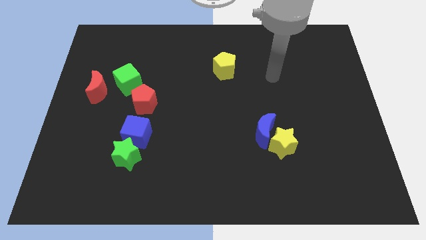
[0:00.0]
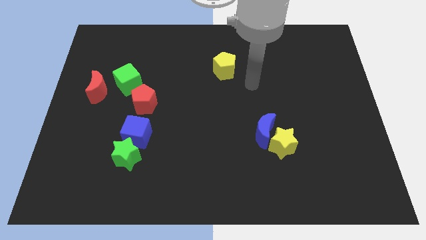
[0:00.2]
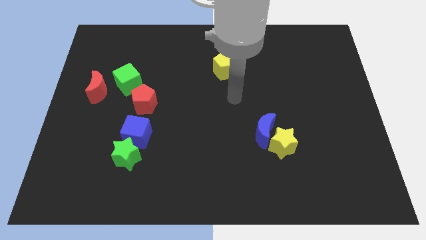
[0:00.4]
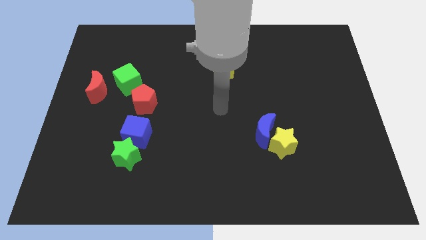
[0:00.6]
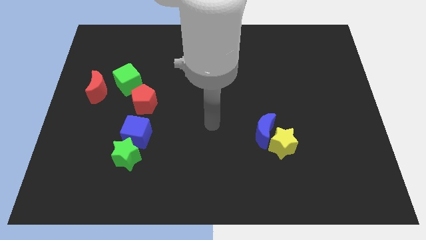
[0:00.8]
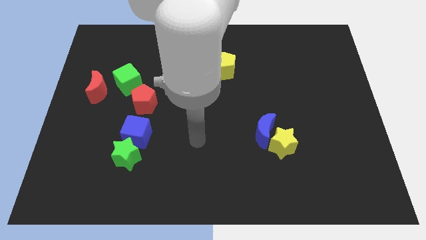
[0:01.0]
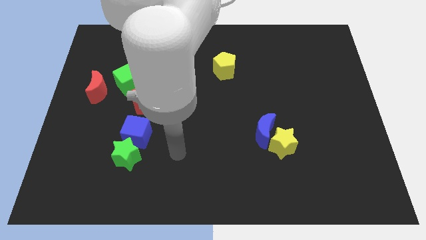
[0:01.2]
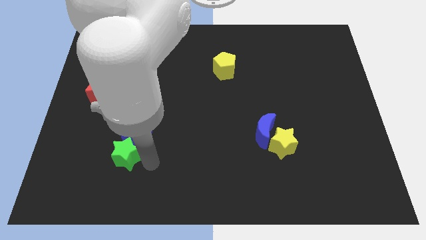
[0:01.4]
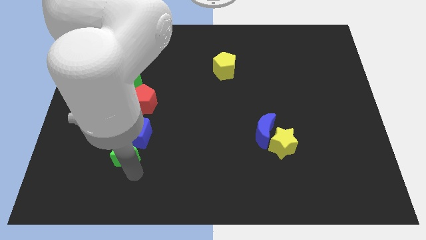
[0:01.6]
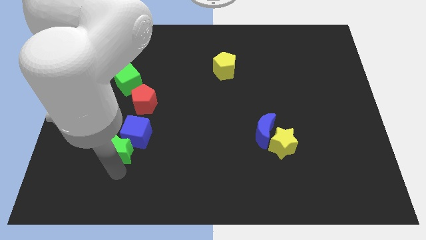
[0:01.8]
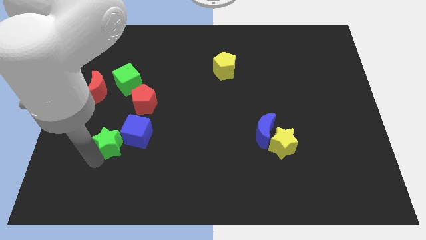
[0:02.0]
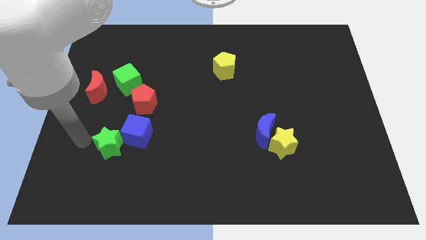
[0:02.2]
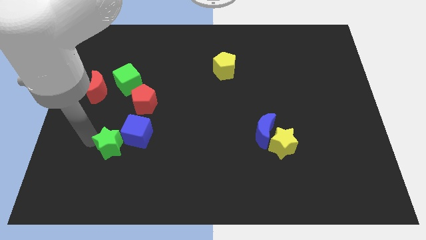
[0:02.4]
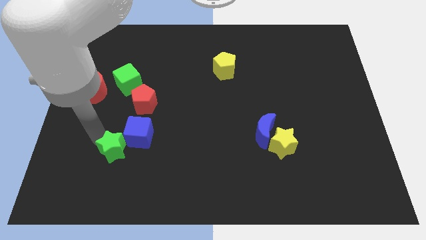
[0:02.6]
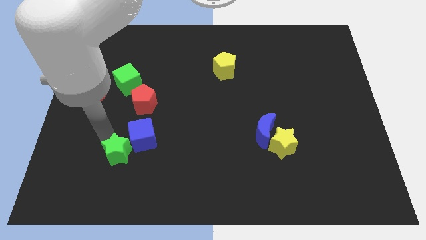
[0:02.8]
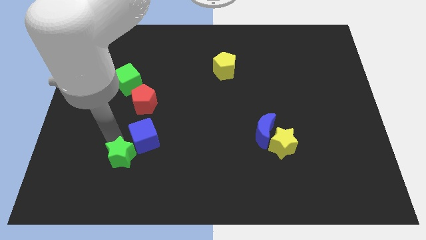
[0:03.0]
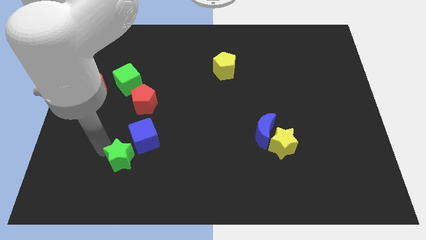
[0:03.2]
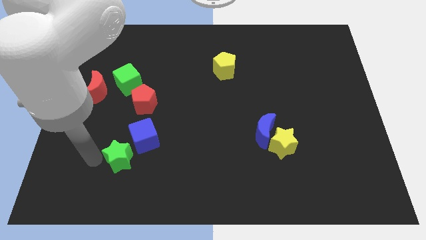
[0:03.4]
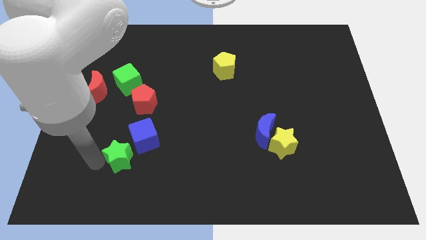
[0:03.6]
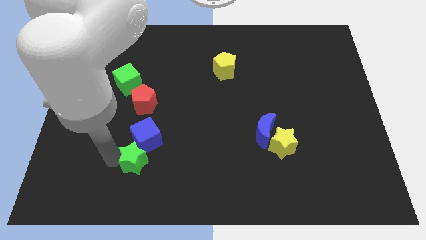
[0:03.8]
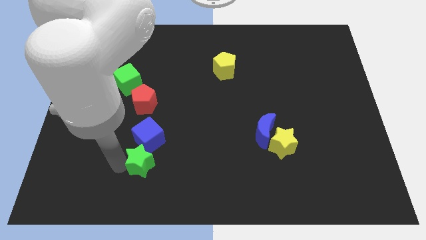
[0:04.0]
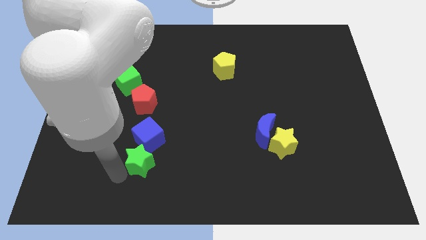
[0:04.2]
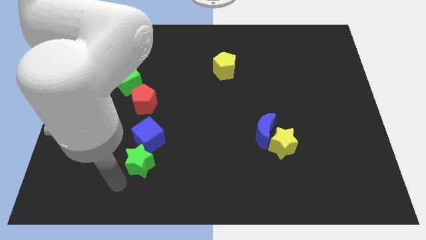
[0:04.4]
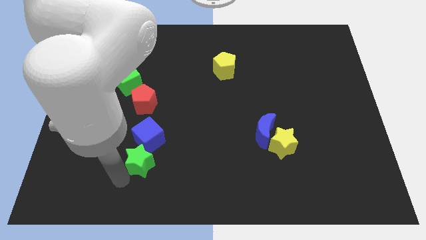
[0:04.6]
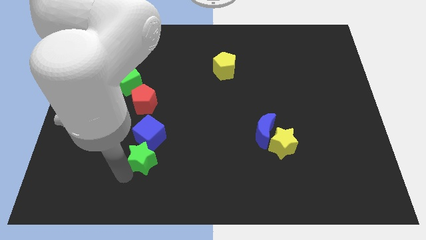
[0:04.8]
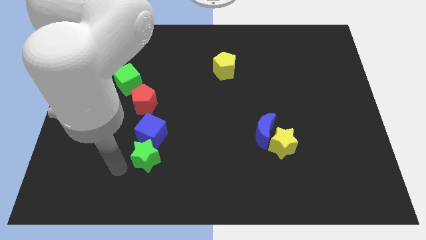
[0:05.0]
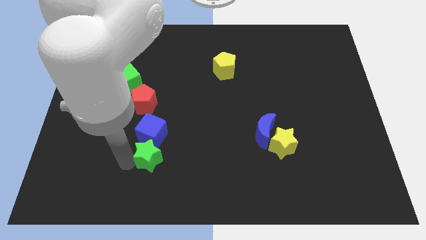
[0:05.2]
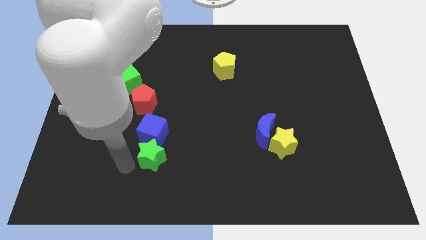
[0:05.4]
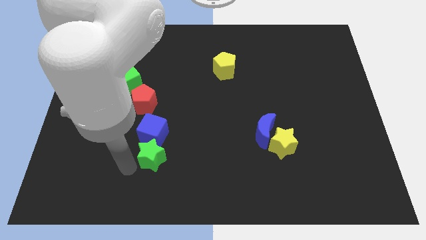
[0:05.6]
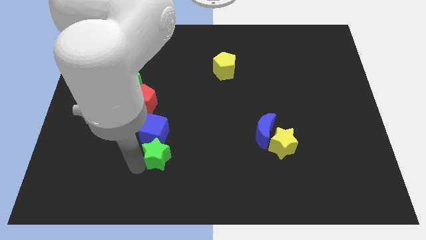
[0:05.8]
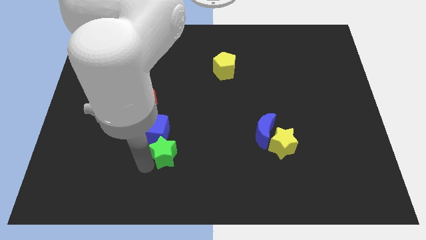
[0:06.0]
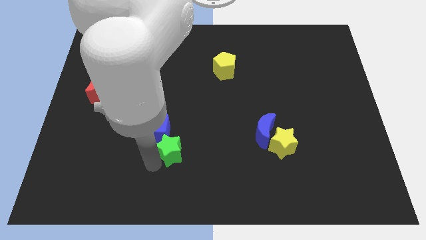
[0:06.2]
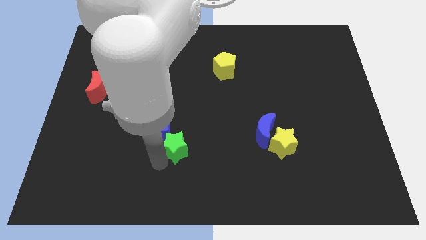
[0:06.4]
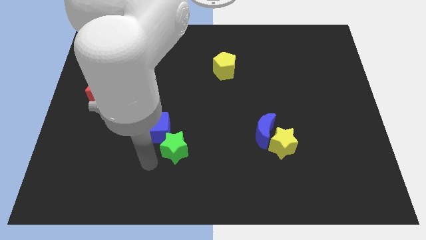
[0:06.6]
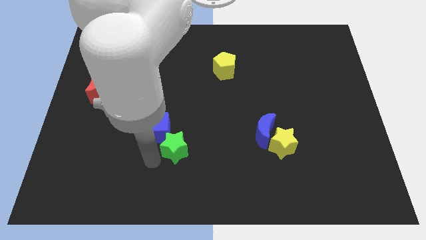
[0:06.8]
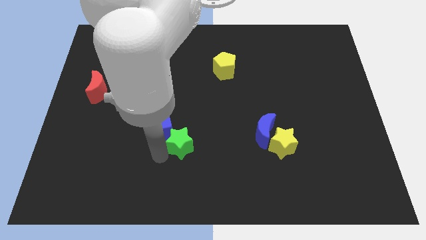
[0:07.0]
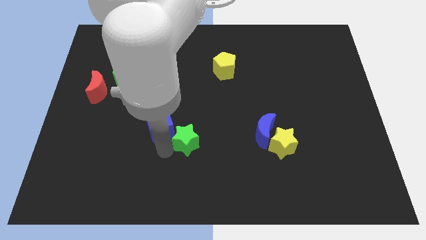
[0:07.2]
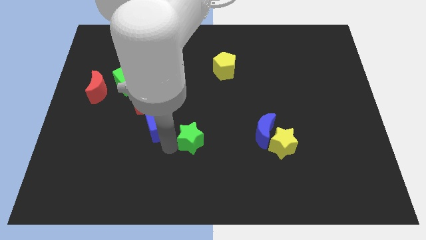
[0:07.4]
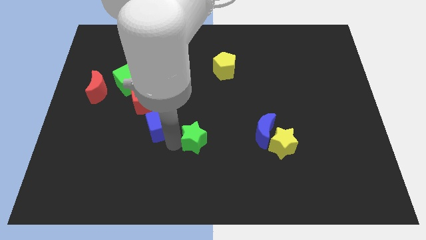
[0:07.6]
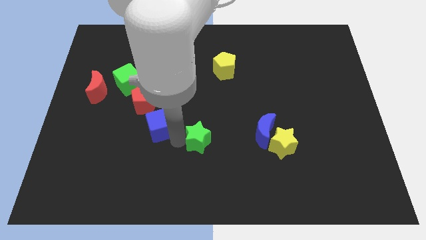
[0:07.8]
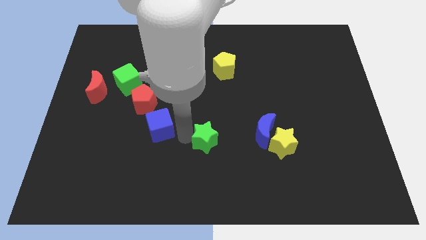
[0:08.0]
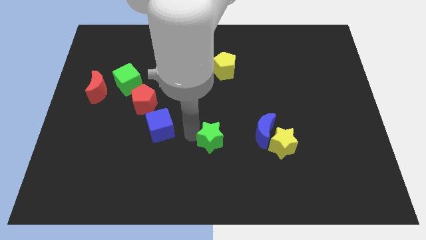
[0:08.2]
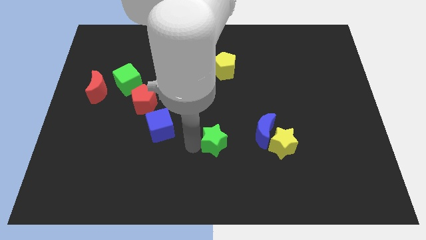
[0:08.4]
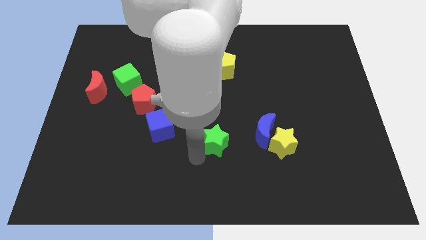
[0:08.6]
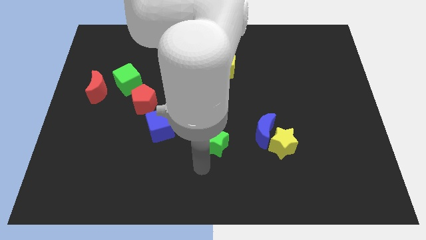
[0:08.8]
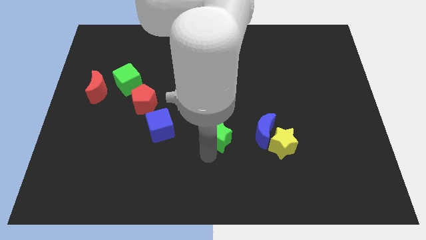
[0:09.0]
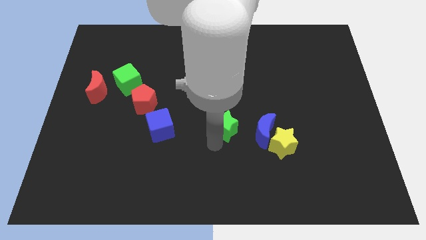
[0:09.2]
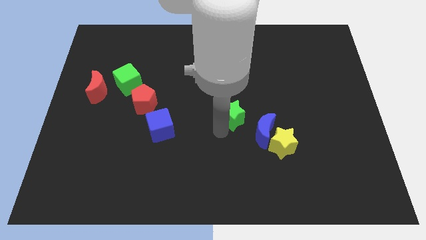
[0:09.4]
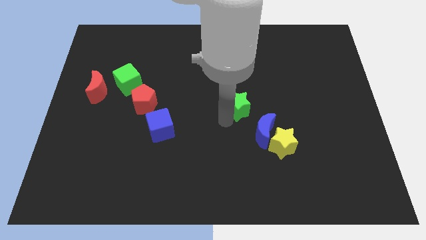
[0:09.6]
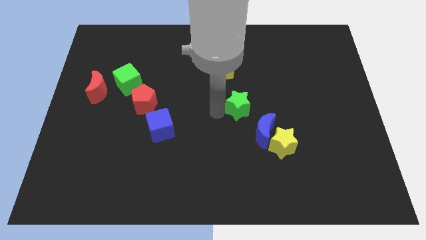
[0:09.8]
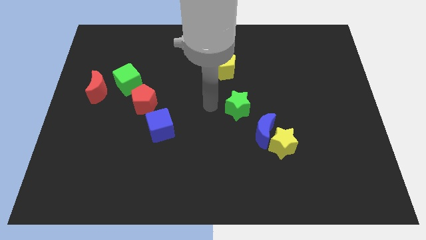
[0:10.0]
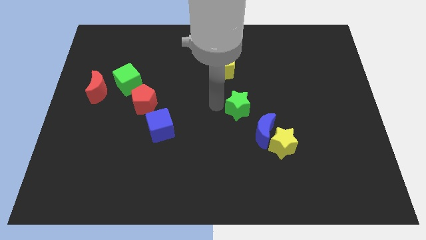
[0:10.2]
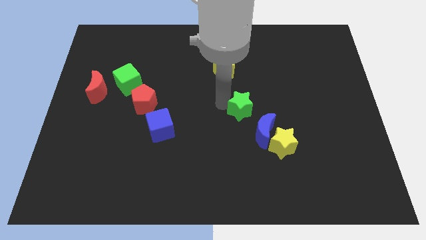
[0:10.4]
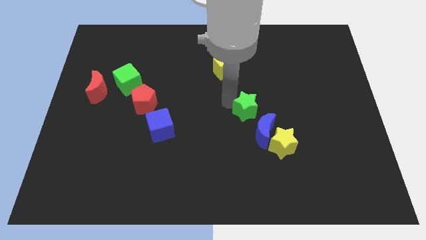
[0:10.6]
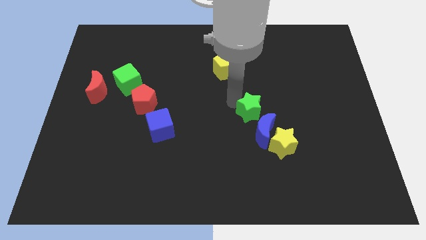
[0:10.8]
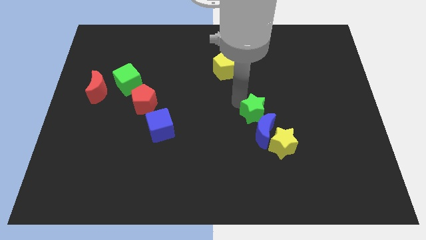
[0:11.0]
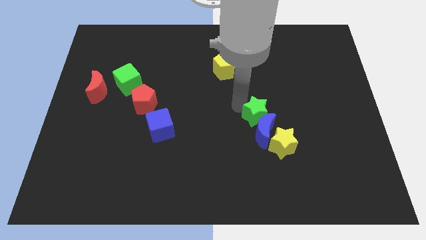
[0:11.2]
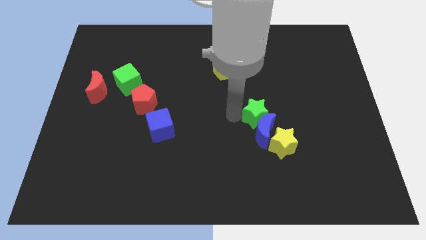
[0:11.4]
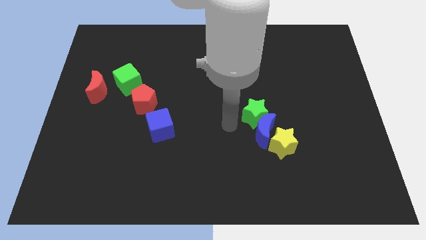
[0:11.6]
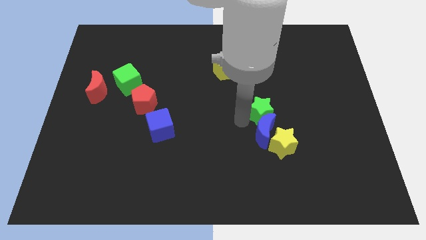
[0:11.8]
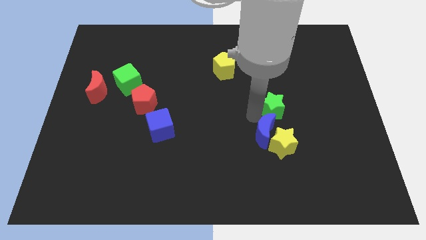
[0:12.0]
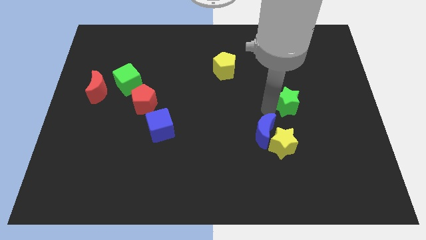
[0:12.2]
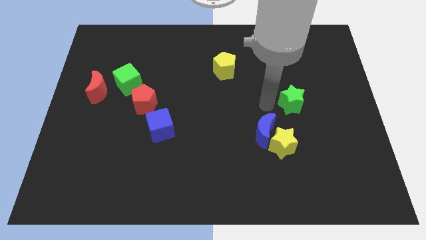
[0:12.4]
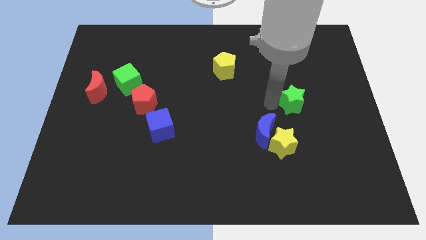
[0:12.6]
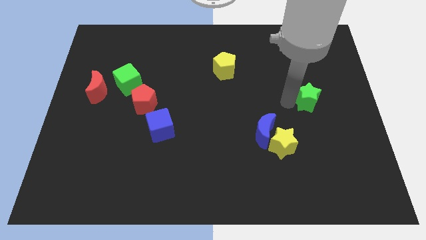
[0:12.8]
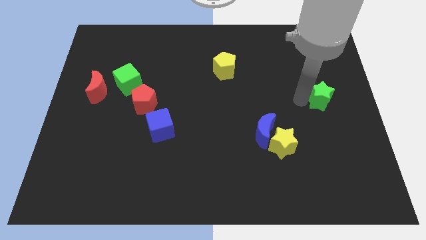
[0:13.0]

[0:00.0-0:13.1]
move the green star to the right side of the board
